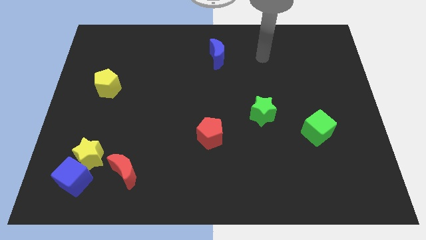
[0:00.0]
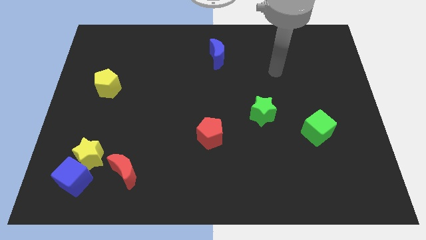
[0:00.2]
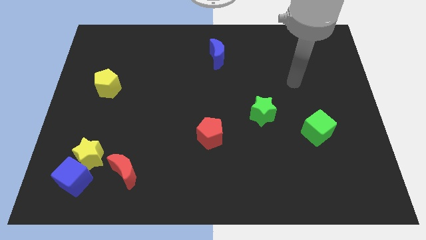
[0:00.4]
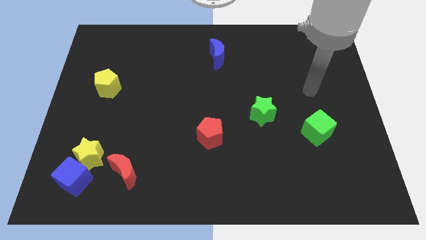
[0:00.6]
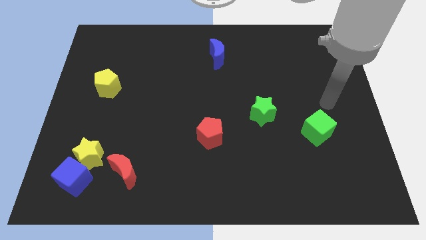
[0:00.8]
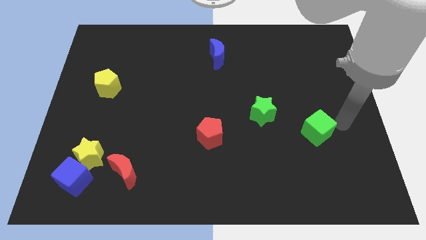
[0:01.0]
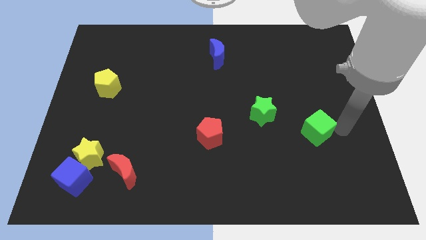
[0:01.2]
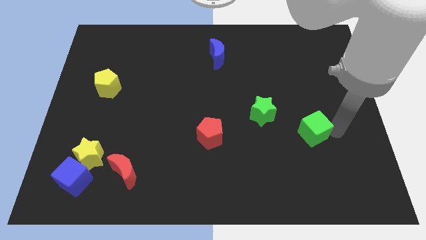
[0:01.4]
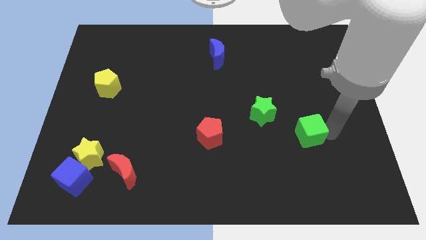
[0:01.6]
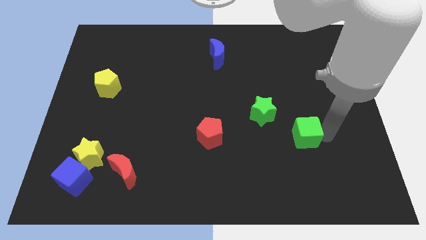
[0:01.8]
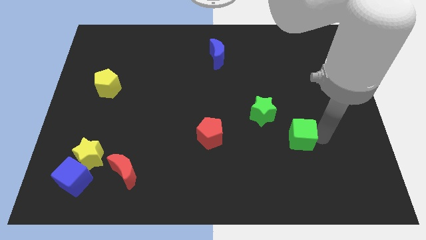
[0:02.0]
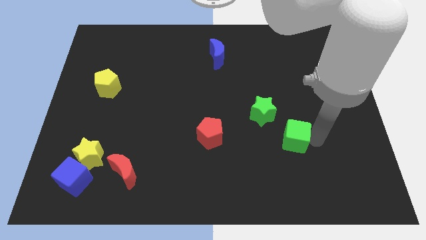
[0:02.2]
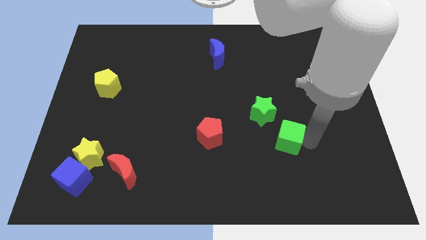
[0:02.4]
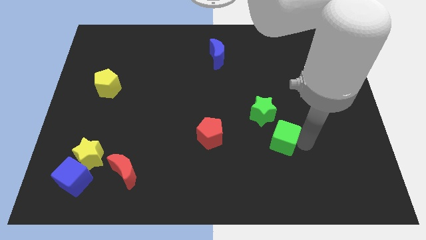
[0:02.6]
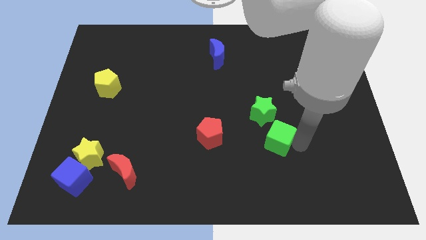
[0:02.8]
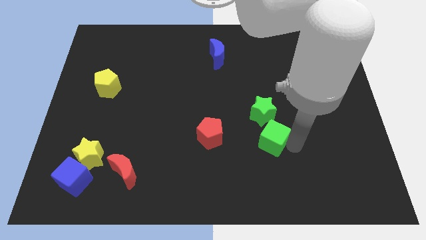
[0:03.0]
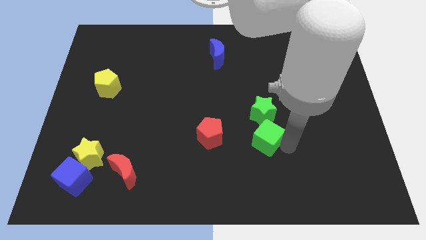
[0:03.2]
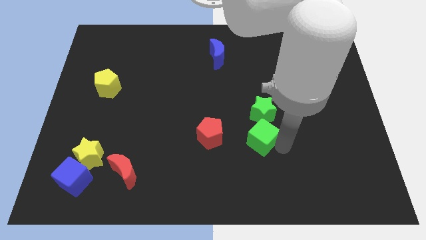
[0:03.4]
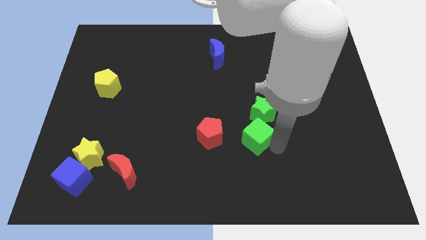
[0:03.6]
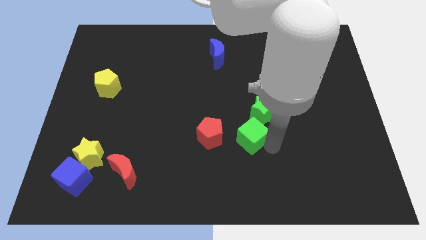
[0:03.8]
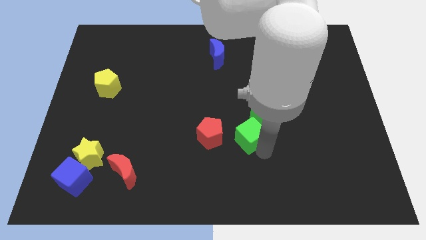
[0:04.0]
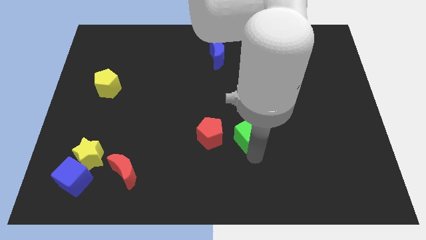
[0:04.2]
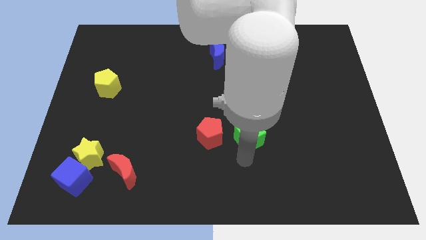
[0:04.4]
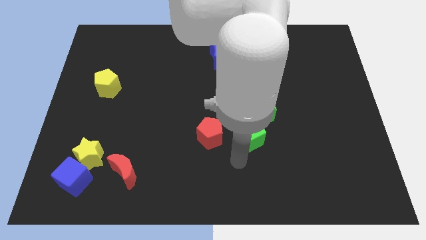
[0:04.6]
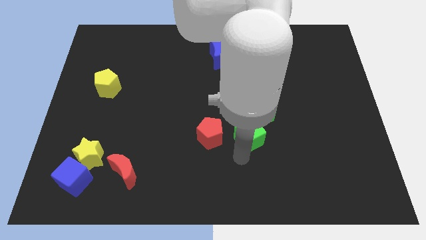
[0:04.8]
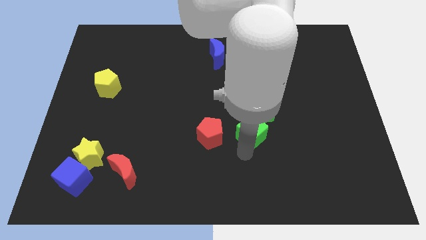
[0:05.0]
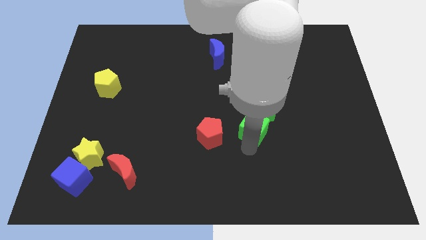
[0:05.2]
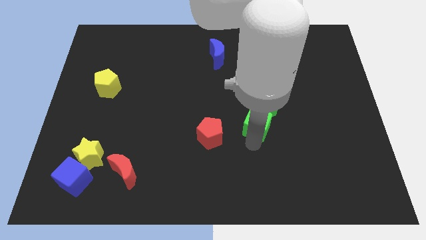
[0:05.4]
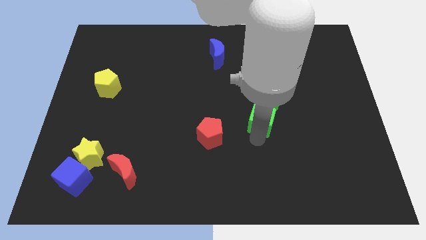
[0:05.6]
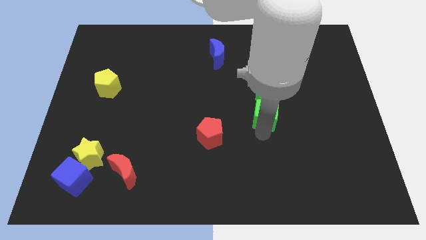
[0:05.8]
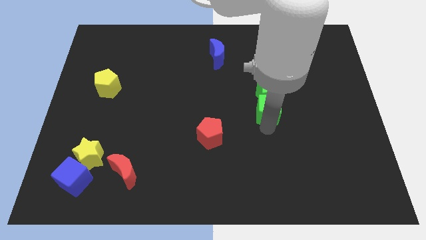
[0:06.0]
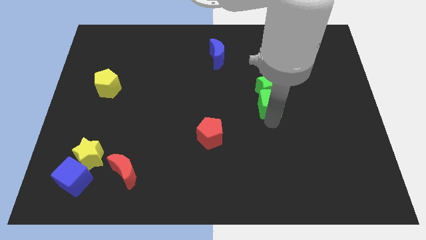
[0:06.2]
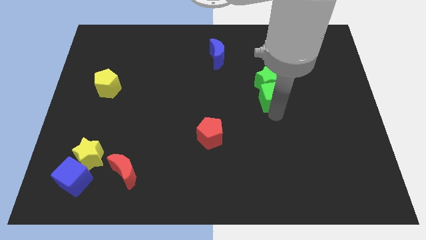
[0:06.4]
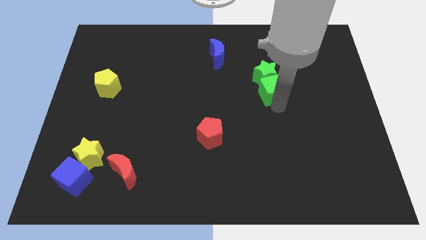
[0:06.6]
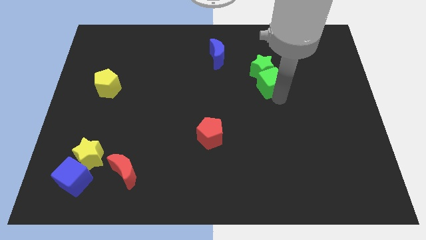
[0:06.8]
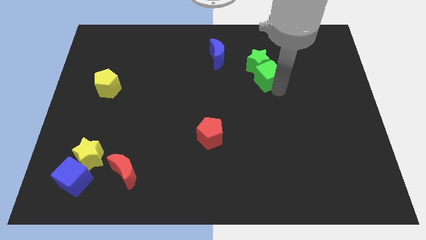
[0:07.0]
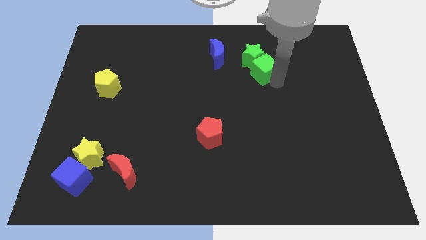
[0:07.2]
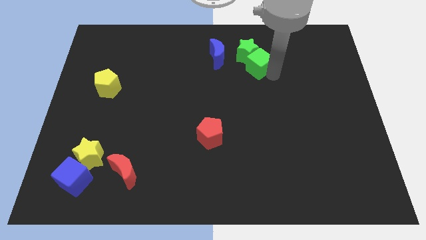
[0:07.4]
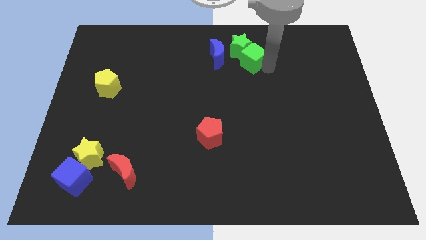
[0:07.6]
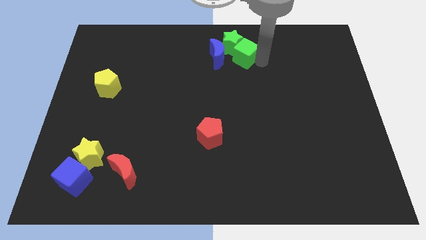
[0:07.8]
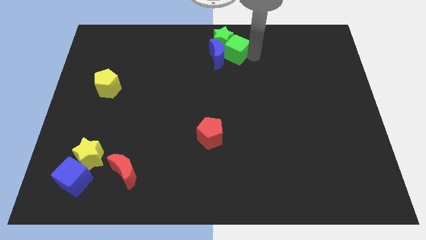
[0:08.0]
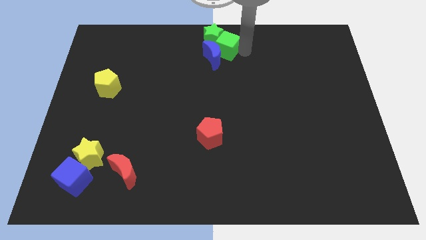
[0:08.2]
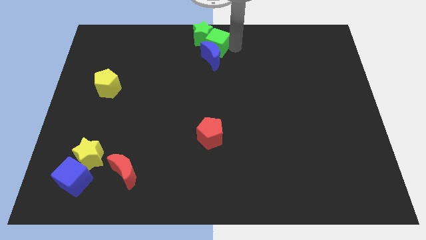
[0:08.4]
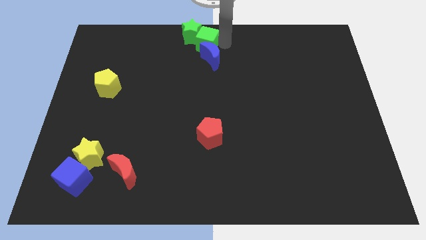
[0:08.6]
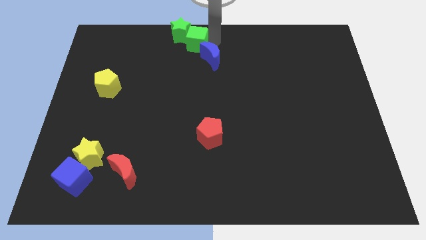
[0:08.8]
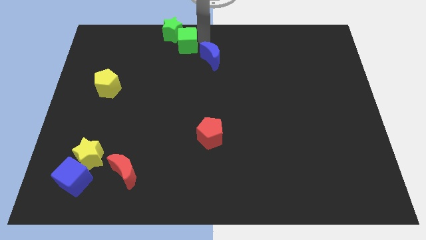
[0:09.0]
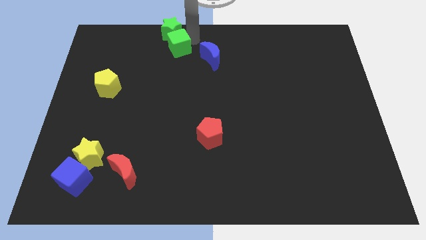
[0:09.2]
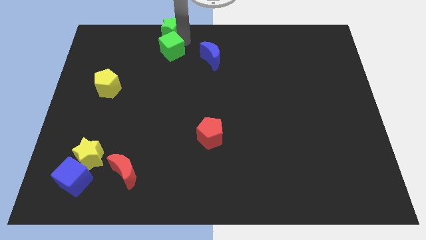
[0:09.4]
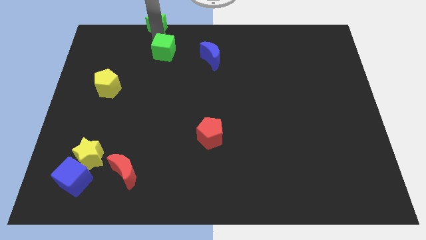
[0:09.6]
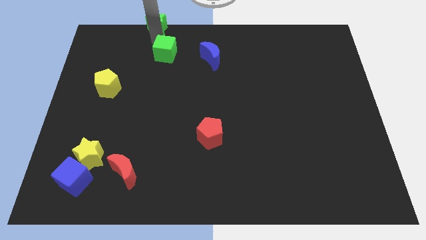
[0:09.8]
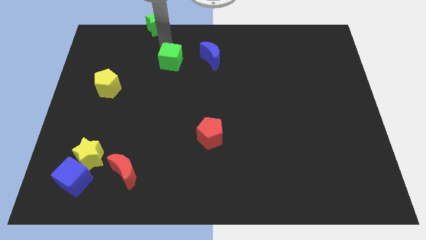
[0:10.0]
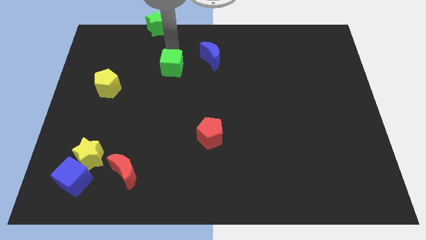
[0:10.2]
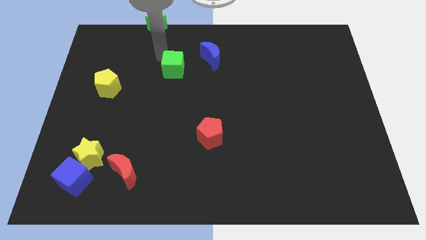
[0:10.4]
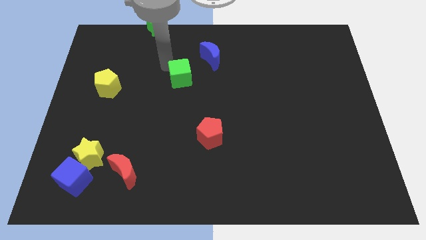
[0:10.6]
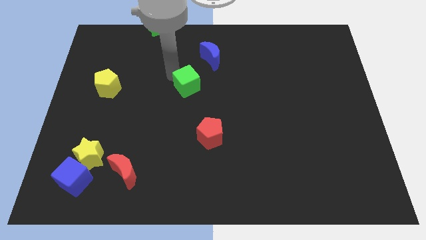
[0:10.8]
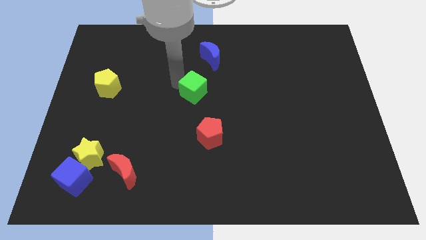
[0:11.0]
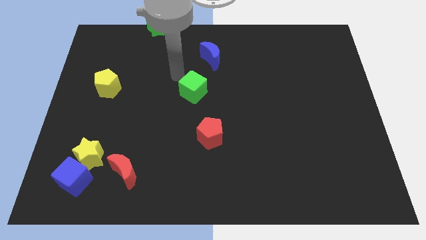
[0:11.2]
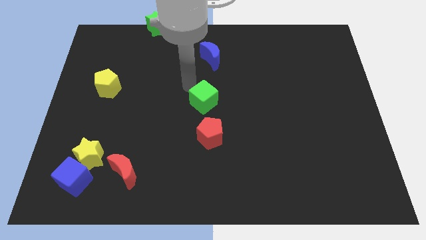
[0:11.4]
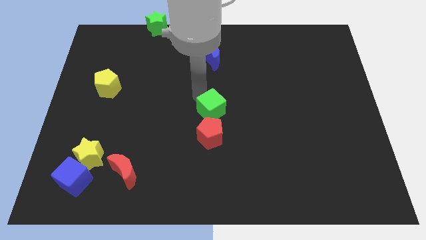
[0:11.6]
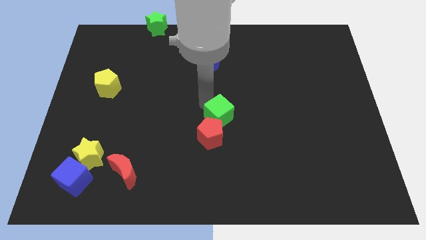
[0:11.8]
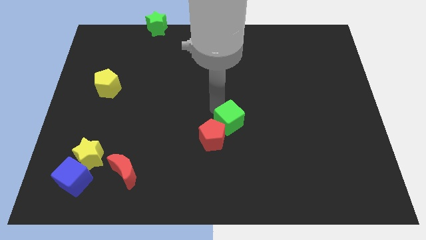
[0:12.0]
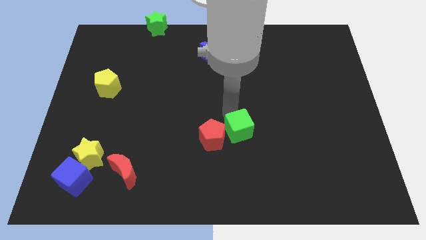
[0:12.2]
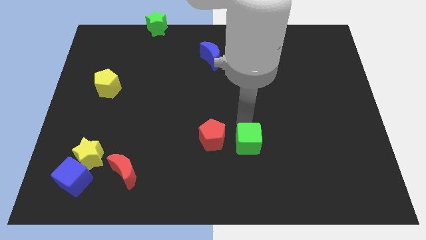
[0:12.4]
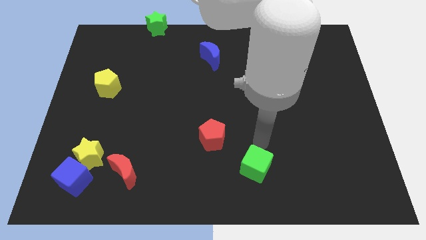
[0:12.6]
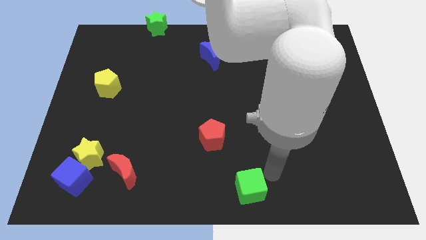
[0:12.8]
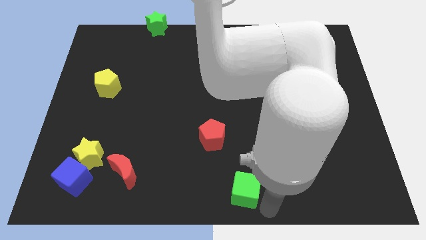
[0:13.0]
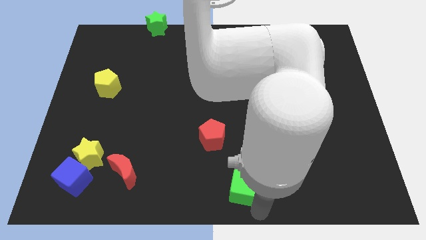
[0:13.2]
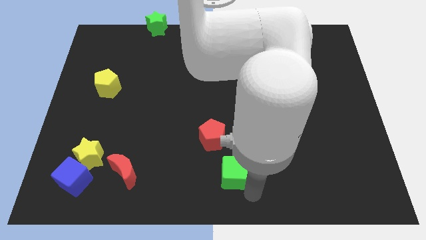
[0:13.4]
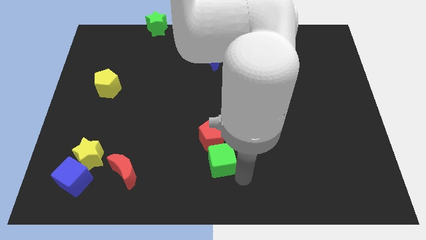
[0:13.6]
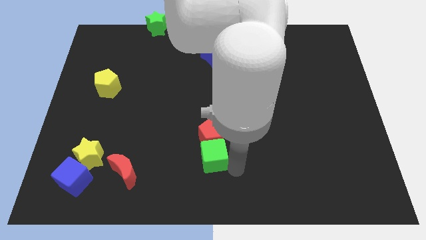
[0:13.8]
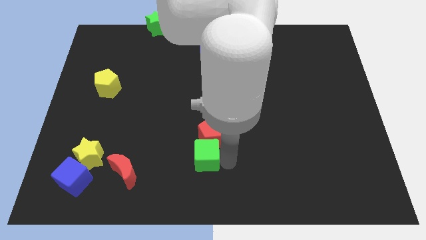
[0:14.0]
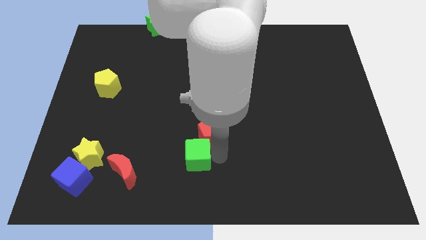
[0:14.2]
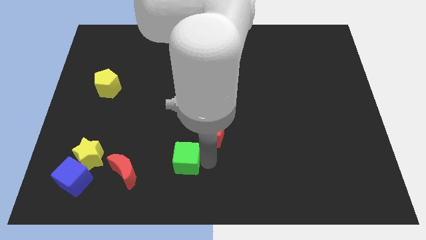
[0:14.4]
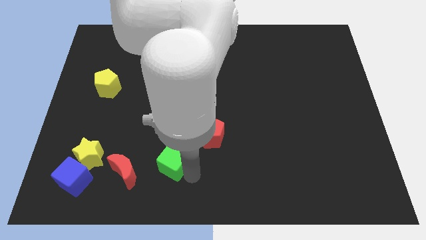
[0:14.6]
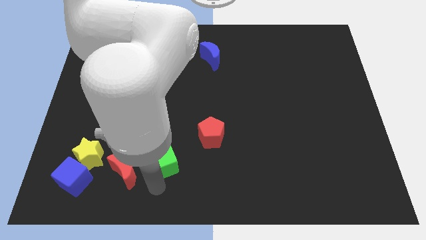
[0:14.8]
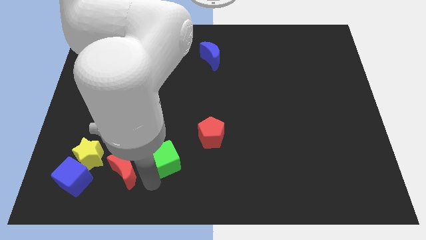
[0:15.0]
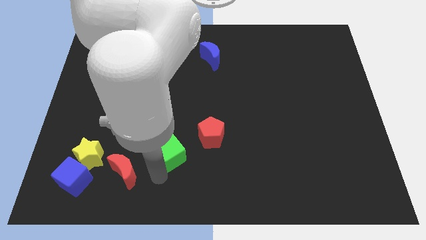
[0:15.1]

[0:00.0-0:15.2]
push the green cube left of the red pentagon
